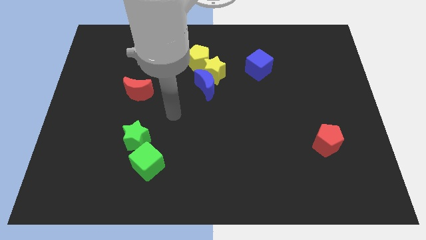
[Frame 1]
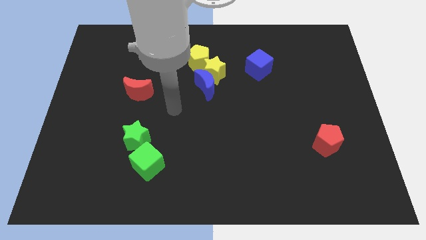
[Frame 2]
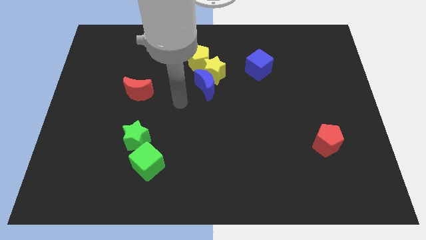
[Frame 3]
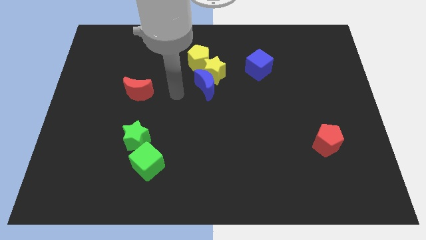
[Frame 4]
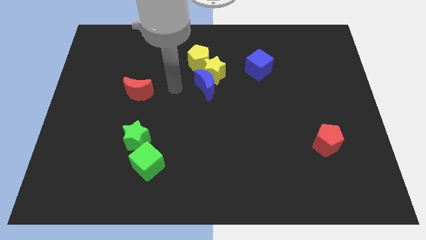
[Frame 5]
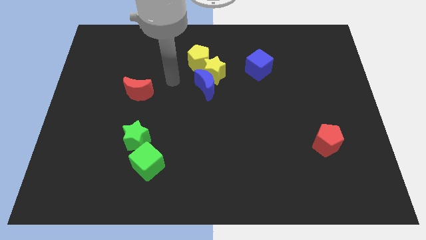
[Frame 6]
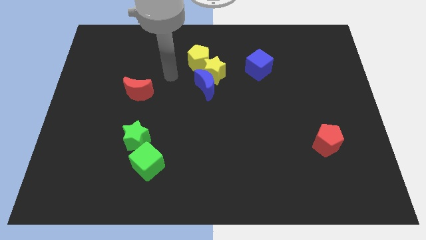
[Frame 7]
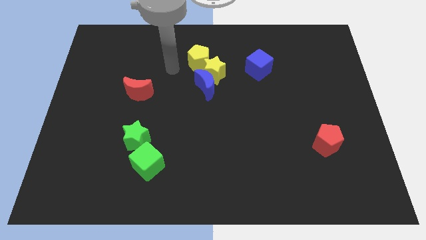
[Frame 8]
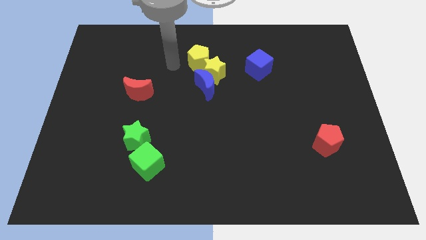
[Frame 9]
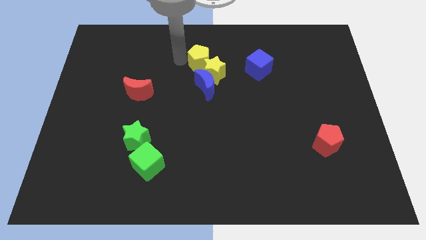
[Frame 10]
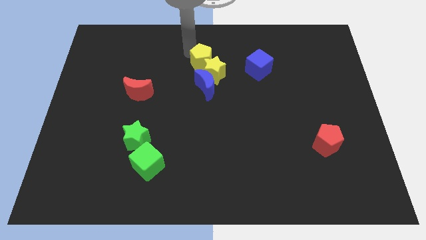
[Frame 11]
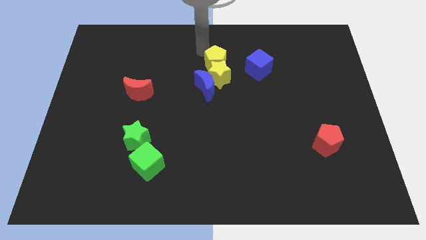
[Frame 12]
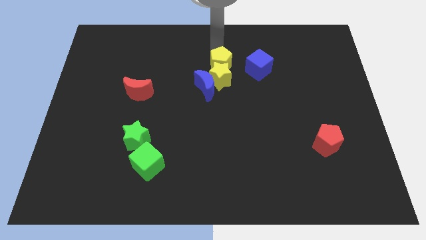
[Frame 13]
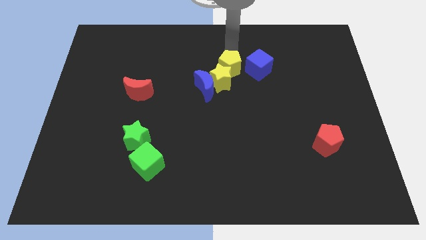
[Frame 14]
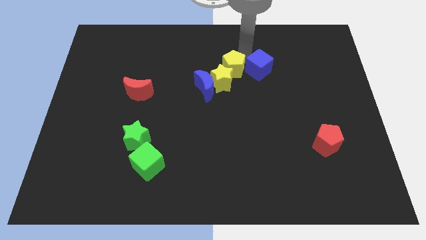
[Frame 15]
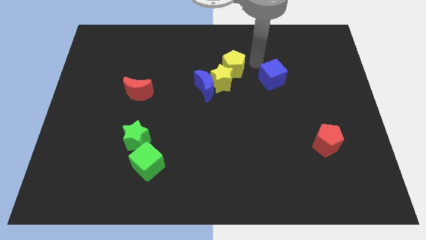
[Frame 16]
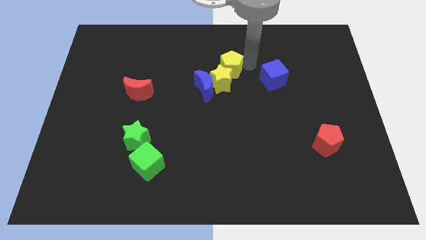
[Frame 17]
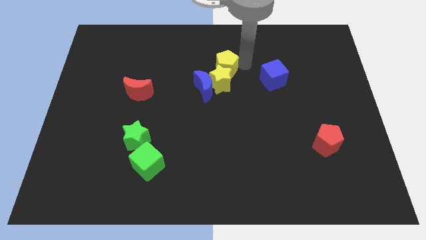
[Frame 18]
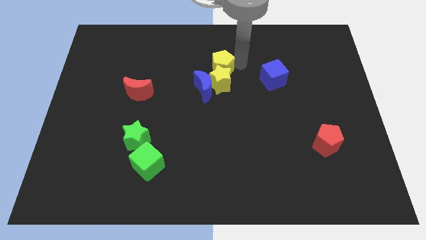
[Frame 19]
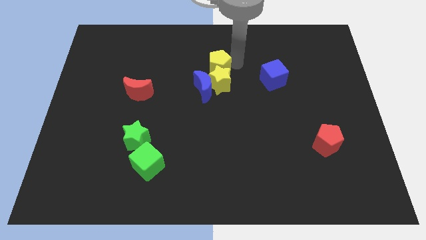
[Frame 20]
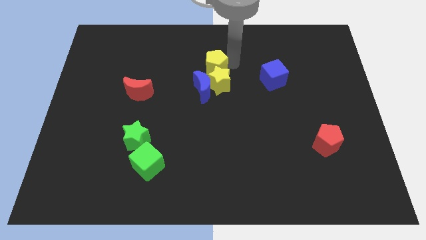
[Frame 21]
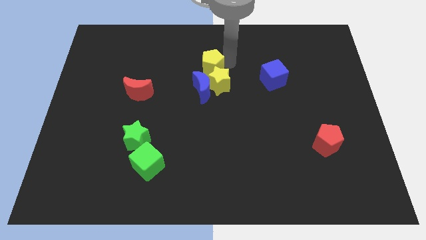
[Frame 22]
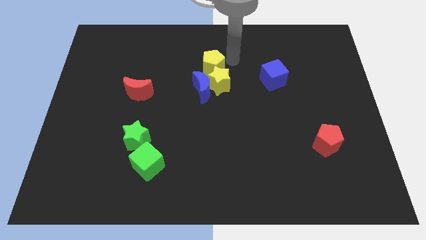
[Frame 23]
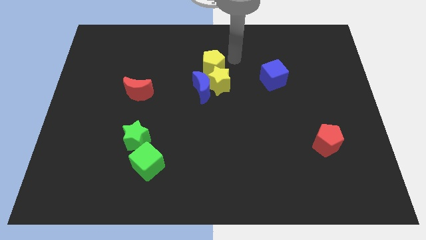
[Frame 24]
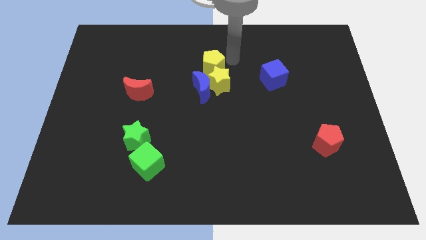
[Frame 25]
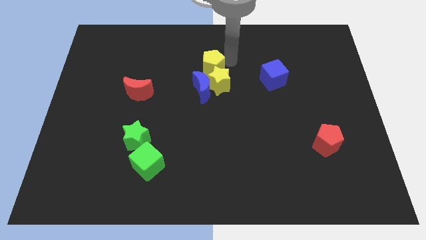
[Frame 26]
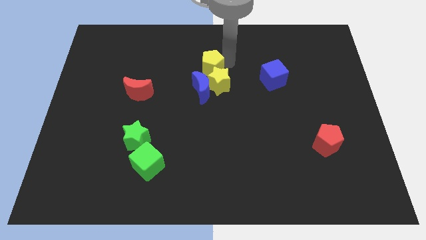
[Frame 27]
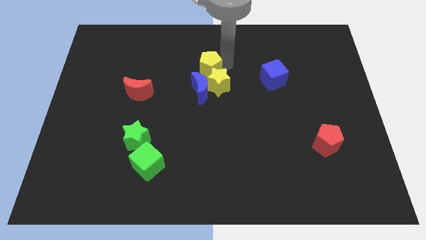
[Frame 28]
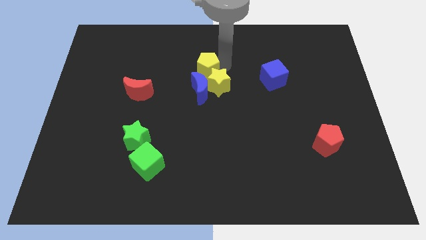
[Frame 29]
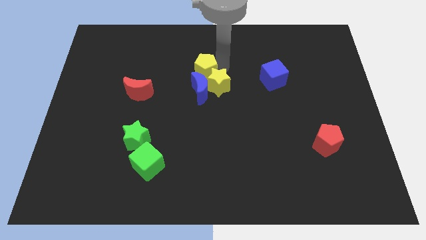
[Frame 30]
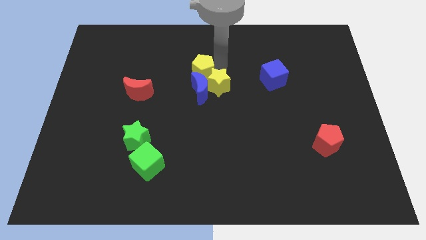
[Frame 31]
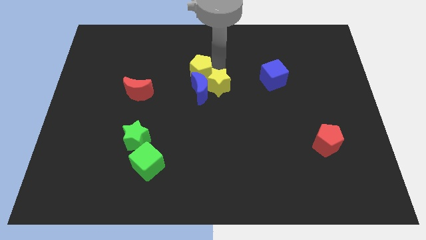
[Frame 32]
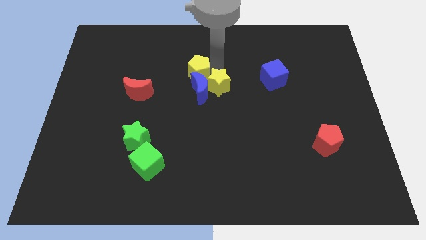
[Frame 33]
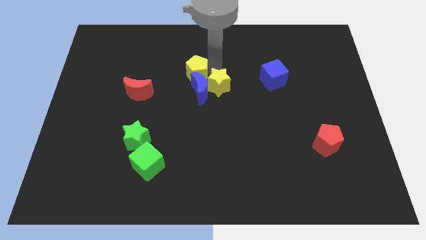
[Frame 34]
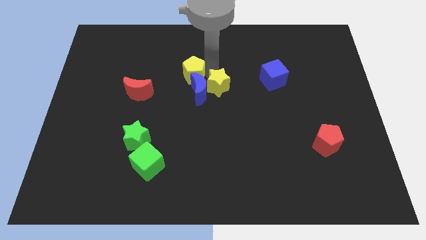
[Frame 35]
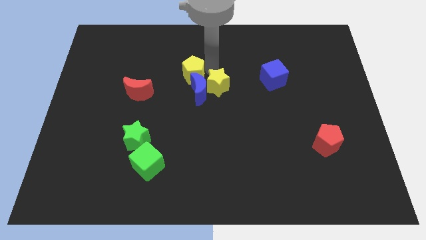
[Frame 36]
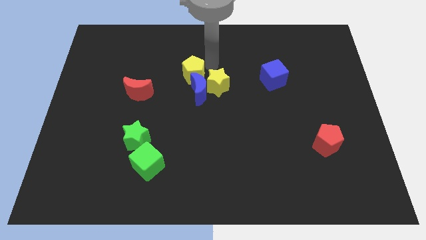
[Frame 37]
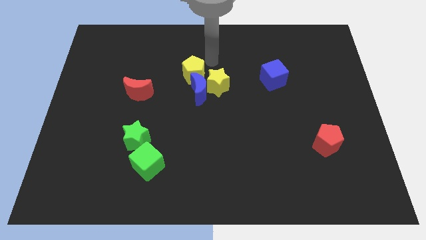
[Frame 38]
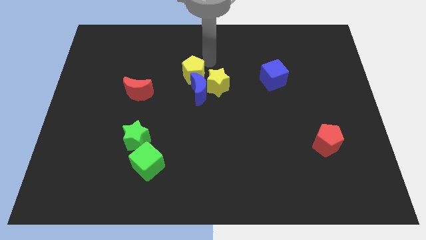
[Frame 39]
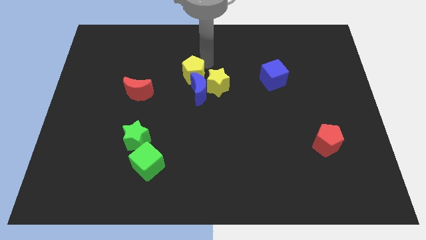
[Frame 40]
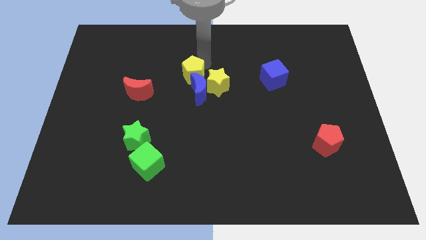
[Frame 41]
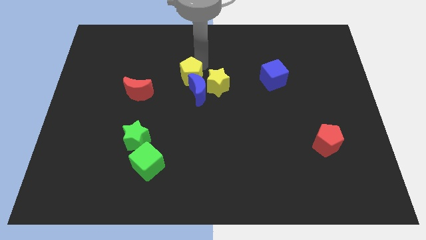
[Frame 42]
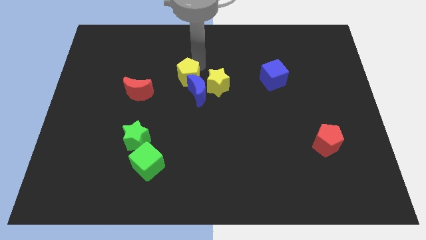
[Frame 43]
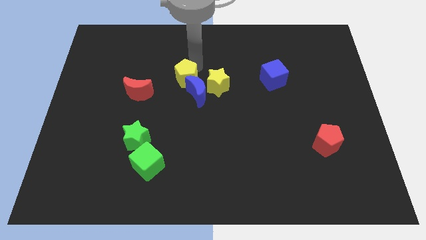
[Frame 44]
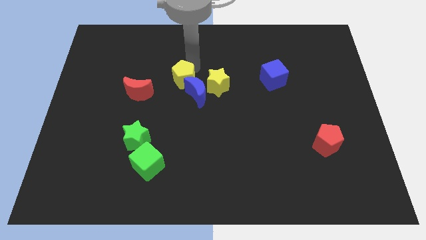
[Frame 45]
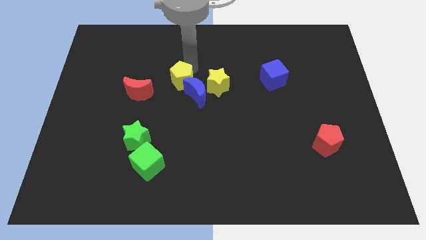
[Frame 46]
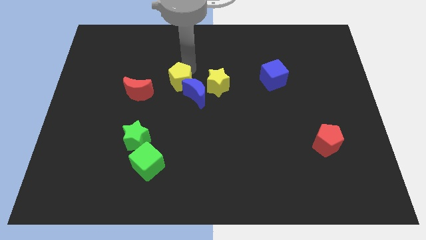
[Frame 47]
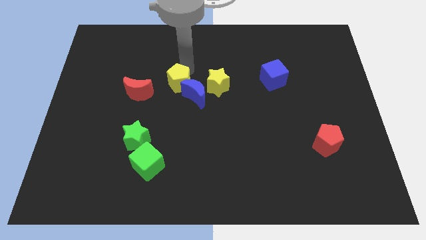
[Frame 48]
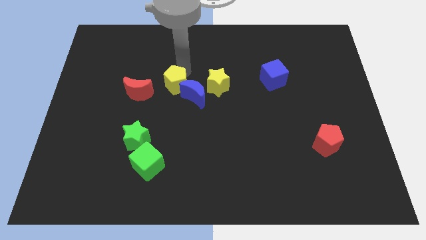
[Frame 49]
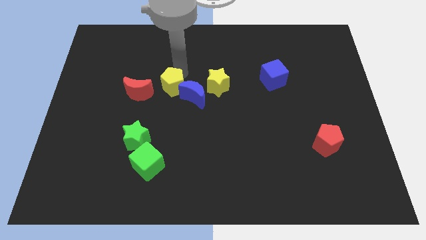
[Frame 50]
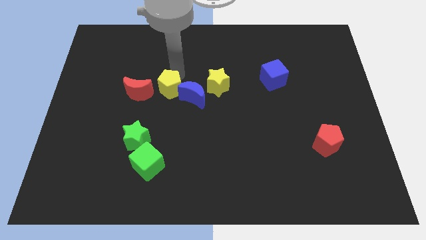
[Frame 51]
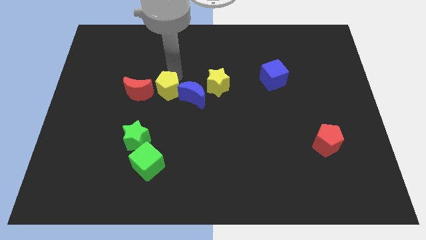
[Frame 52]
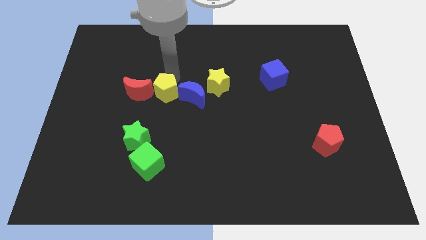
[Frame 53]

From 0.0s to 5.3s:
slide the yellow pentagon to the bottom right side of the red moon

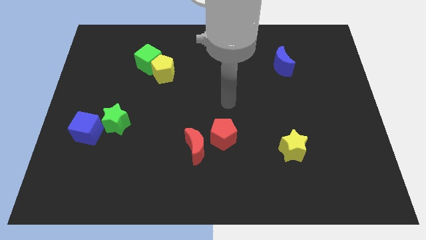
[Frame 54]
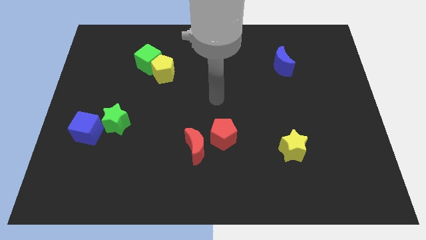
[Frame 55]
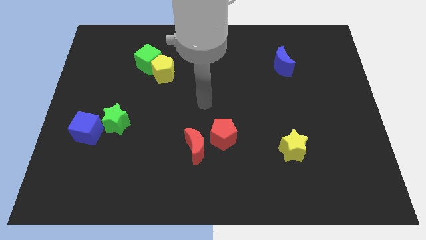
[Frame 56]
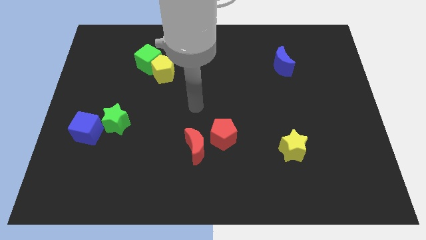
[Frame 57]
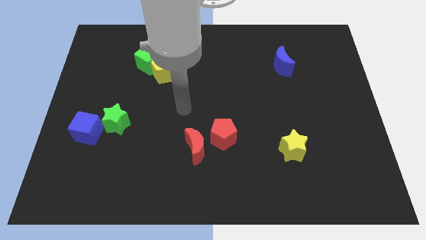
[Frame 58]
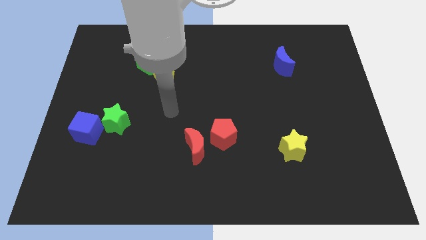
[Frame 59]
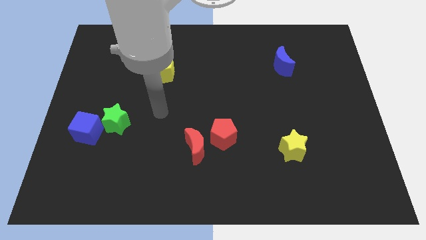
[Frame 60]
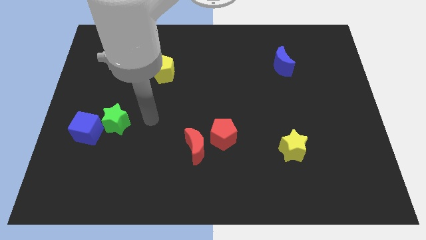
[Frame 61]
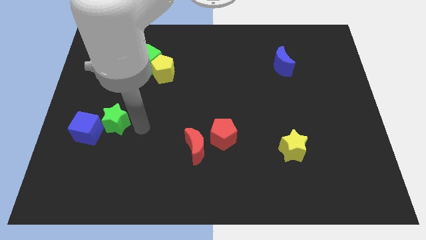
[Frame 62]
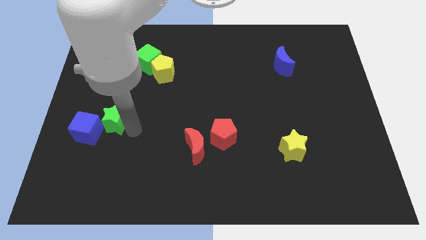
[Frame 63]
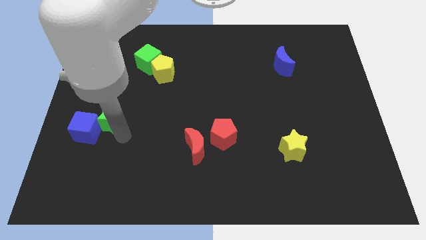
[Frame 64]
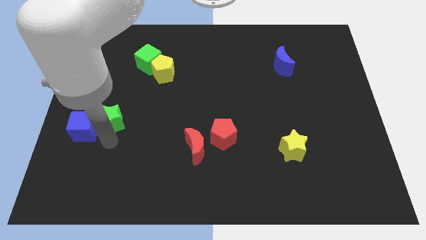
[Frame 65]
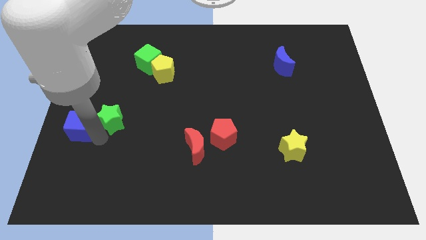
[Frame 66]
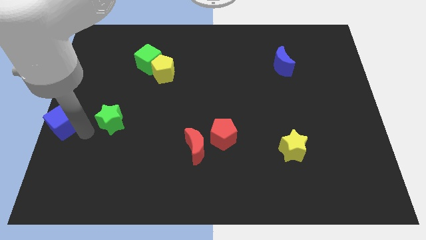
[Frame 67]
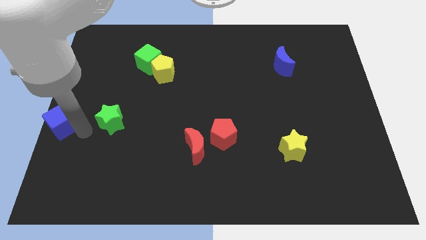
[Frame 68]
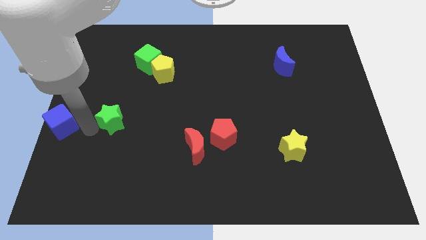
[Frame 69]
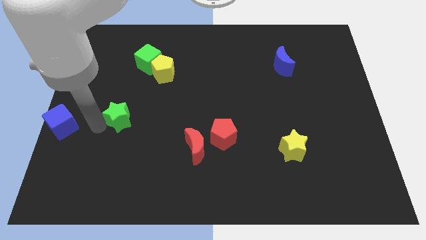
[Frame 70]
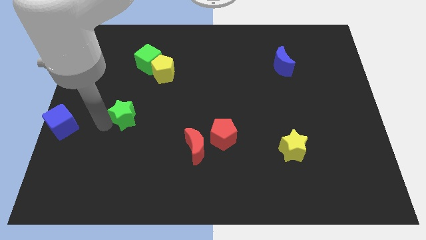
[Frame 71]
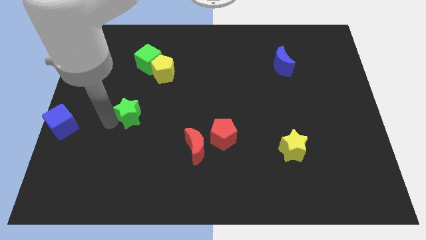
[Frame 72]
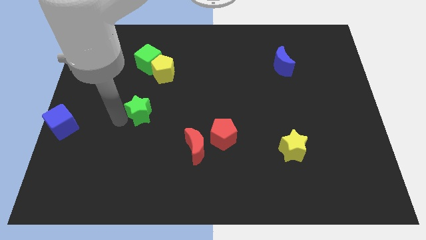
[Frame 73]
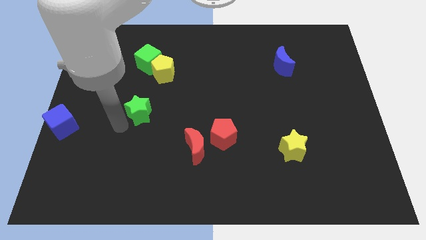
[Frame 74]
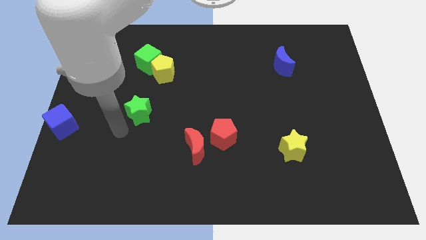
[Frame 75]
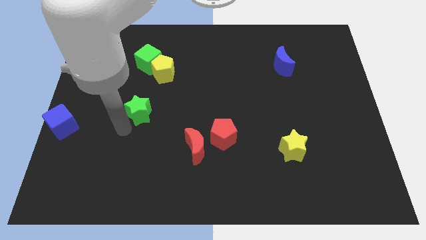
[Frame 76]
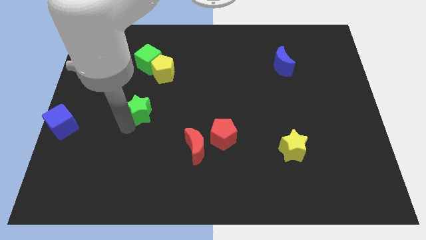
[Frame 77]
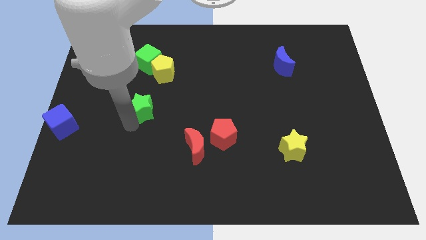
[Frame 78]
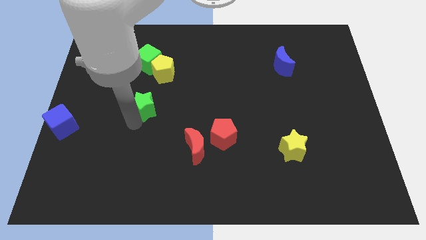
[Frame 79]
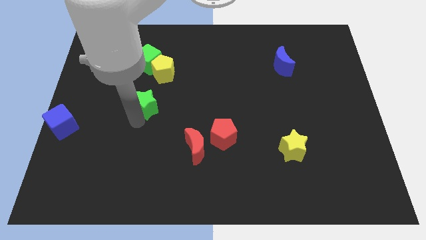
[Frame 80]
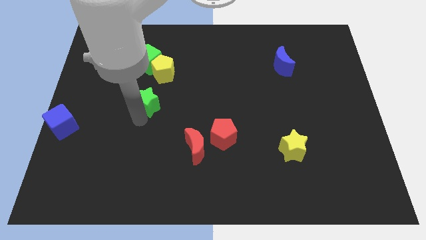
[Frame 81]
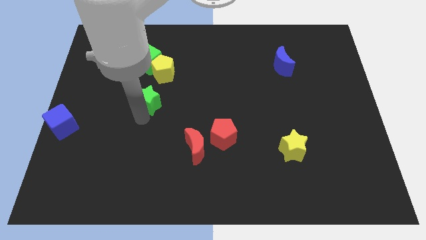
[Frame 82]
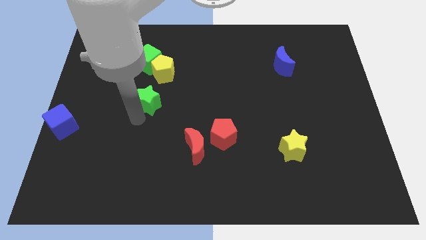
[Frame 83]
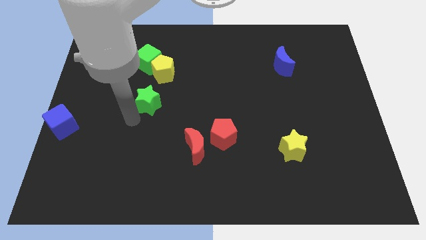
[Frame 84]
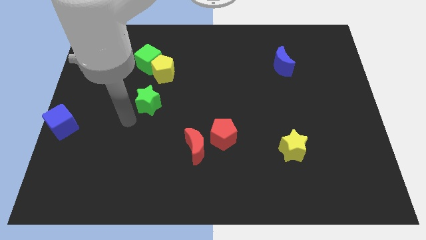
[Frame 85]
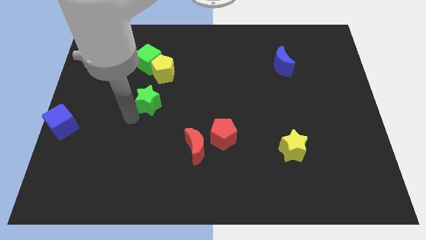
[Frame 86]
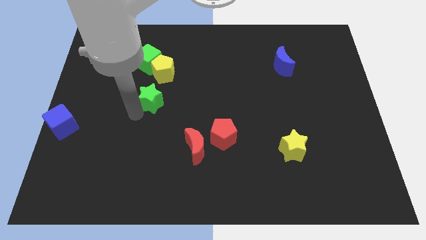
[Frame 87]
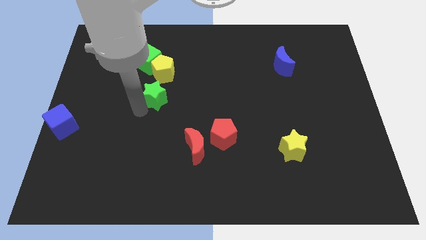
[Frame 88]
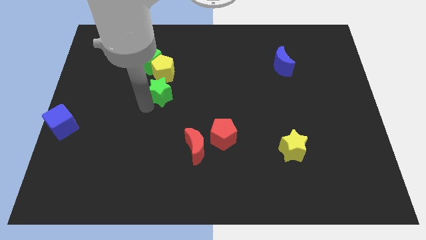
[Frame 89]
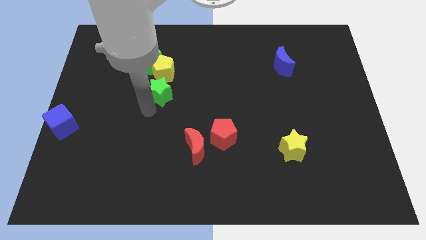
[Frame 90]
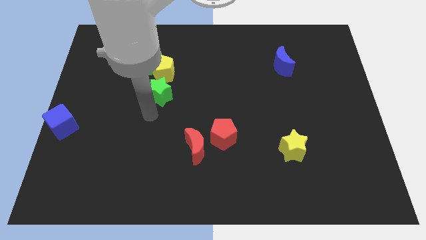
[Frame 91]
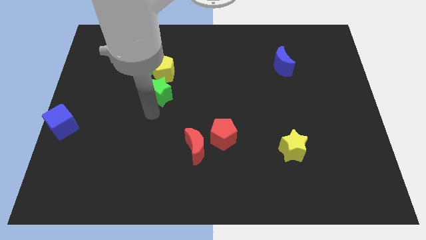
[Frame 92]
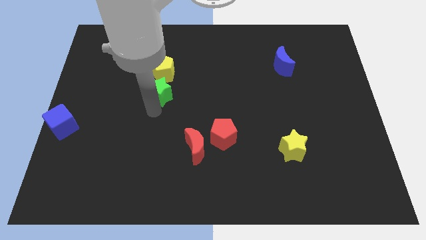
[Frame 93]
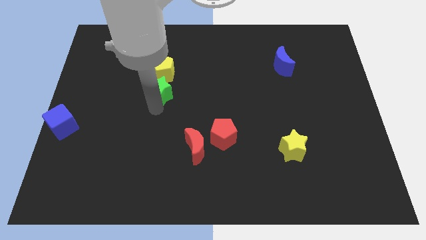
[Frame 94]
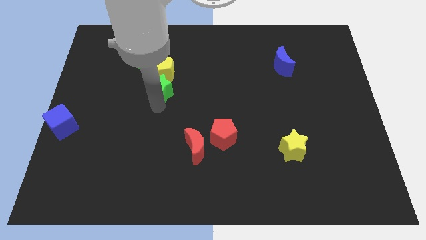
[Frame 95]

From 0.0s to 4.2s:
put the green star to the bottom right side of the green cube
